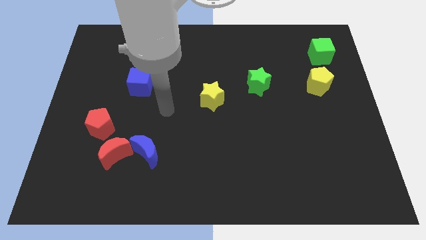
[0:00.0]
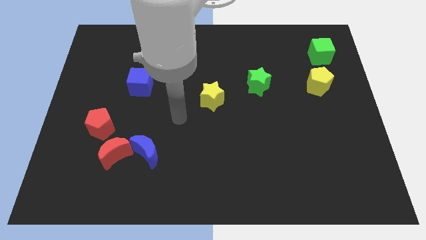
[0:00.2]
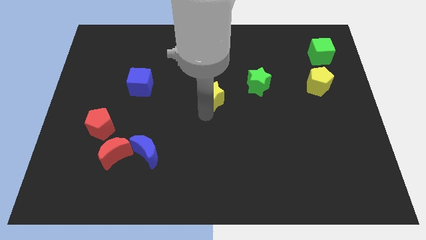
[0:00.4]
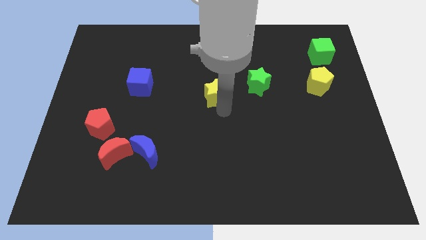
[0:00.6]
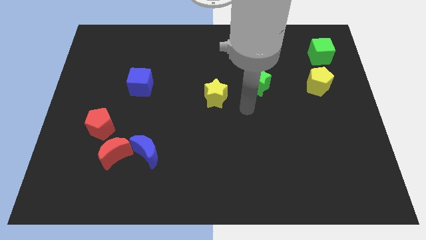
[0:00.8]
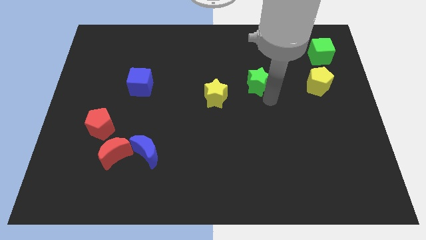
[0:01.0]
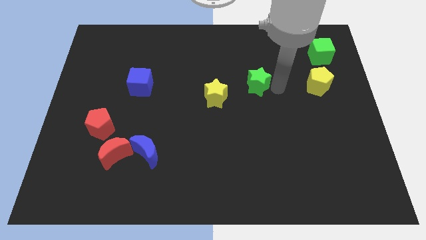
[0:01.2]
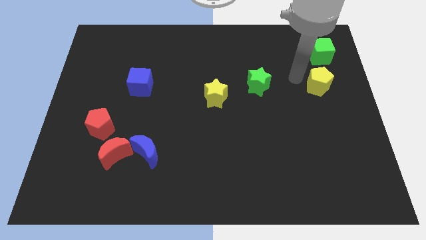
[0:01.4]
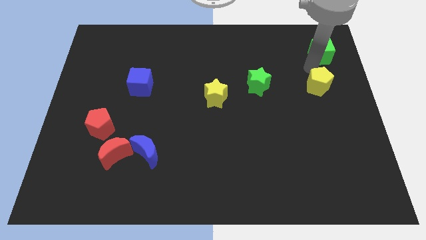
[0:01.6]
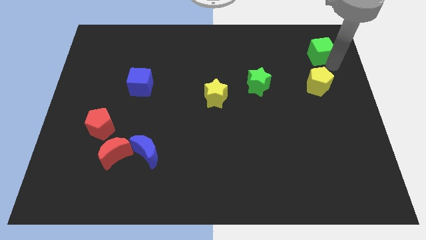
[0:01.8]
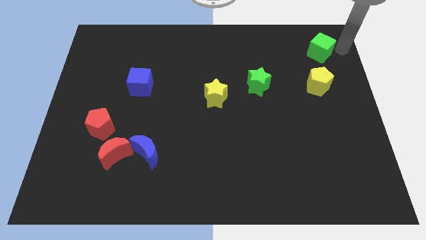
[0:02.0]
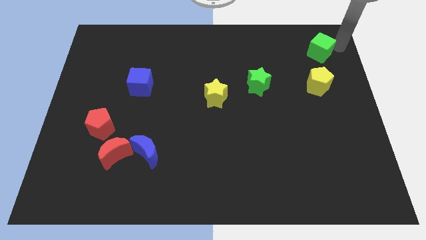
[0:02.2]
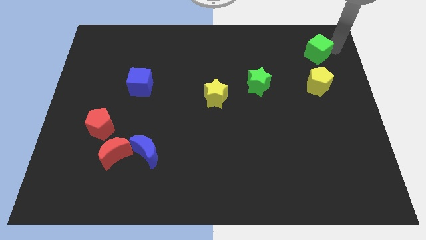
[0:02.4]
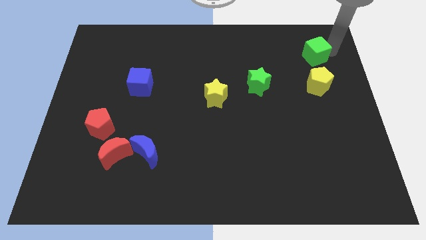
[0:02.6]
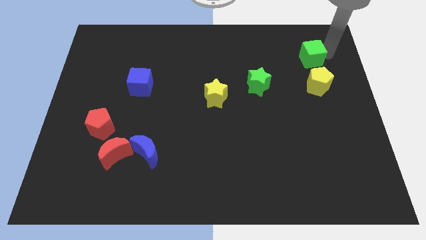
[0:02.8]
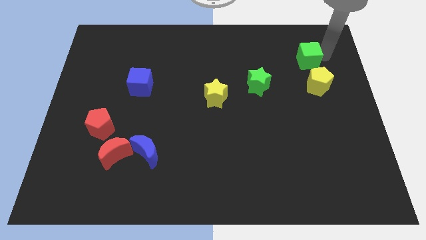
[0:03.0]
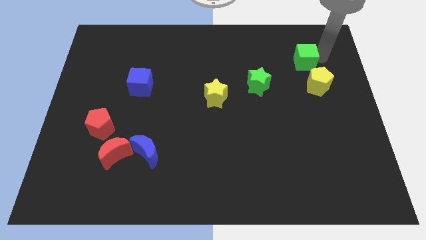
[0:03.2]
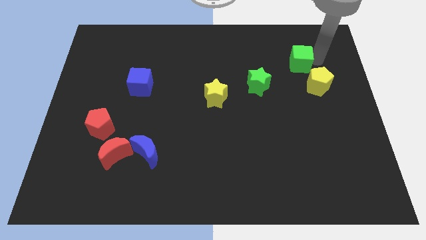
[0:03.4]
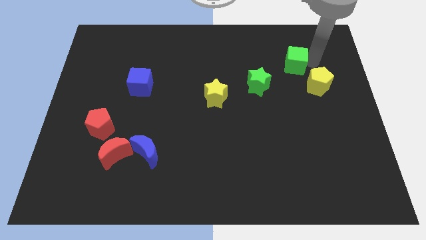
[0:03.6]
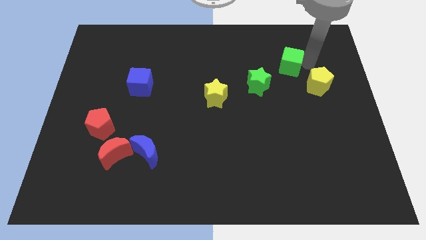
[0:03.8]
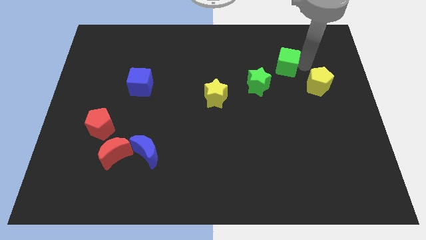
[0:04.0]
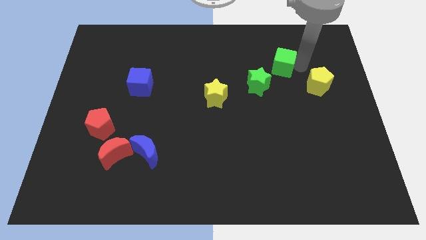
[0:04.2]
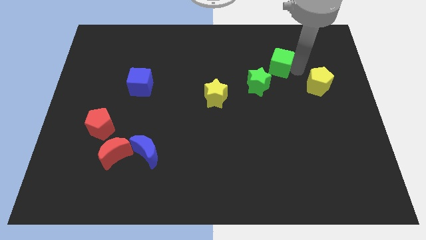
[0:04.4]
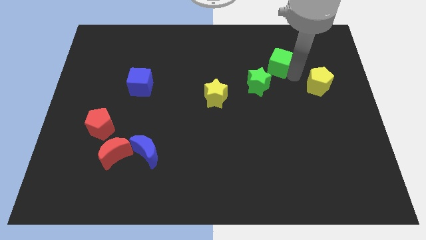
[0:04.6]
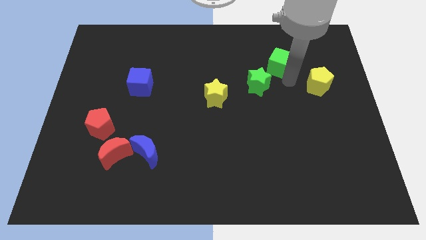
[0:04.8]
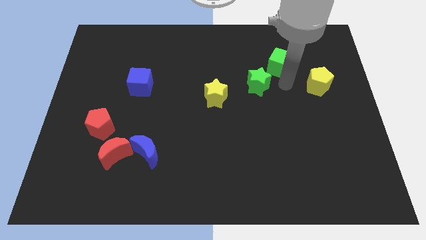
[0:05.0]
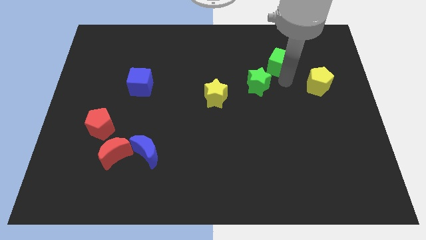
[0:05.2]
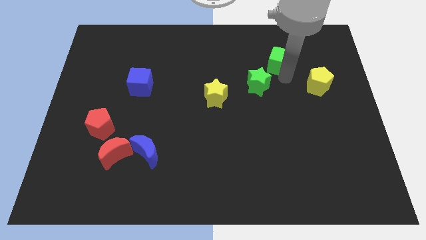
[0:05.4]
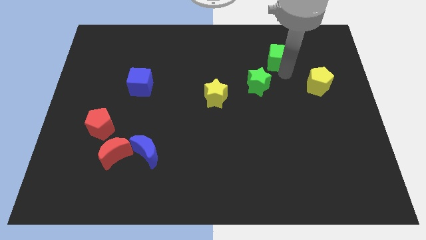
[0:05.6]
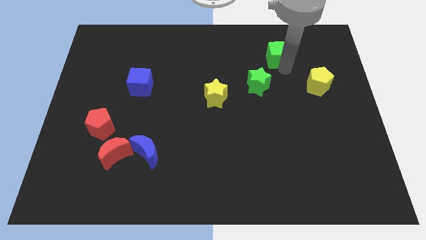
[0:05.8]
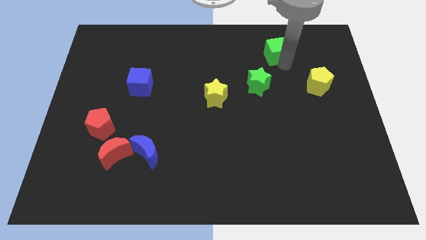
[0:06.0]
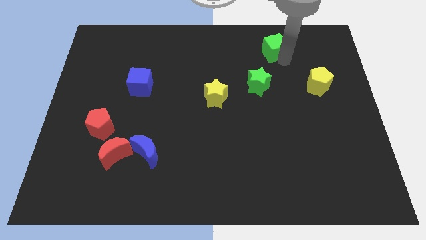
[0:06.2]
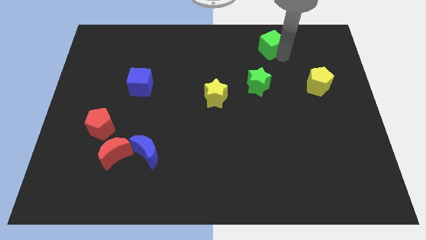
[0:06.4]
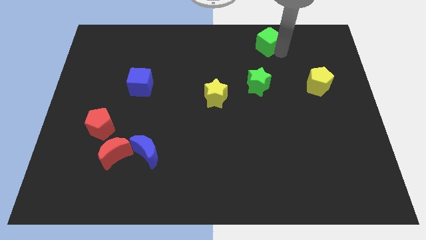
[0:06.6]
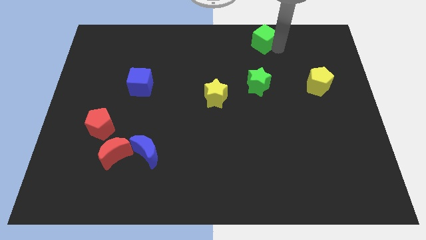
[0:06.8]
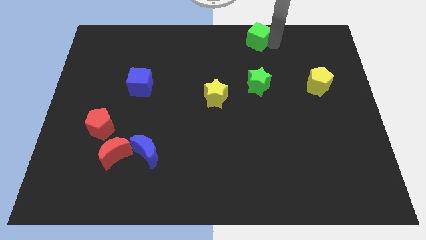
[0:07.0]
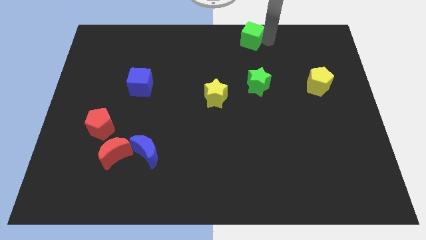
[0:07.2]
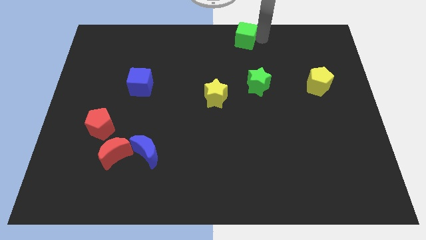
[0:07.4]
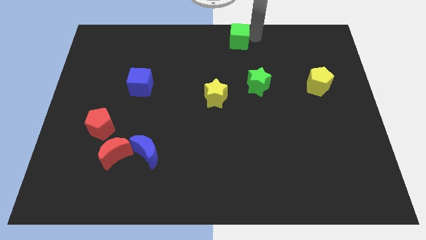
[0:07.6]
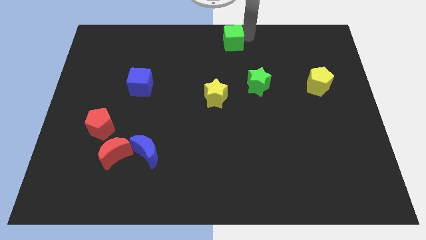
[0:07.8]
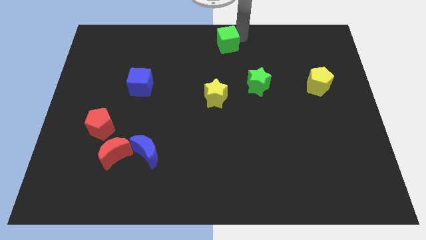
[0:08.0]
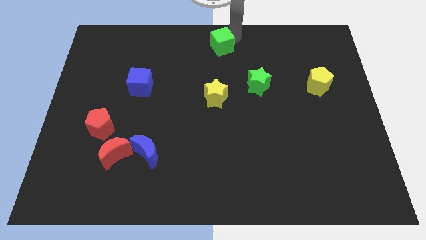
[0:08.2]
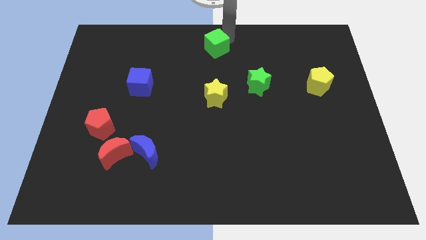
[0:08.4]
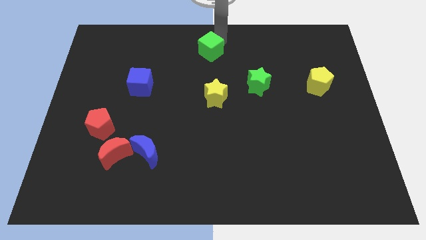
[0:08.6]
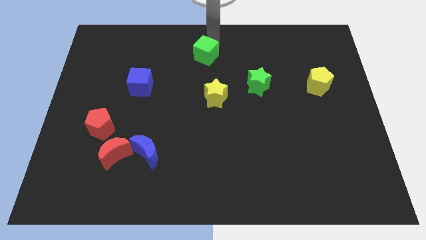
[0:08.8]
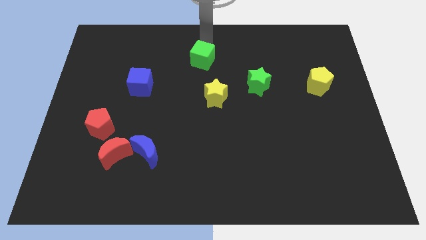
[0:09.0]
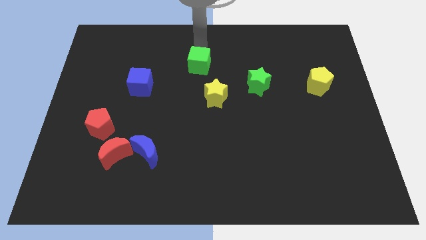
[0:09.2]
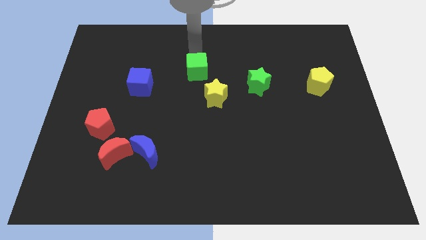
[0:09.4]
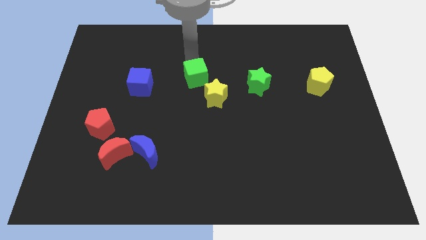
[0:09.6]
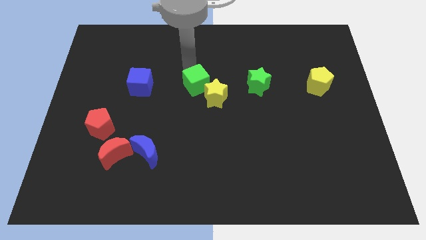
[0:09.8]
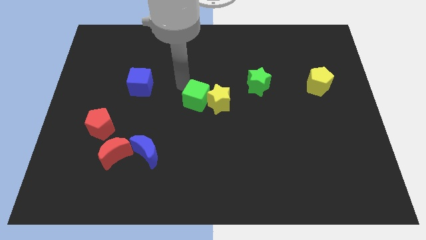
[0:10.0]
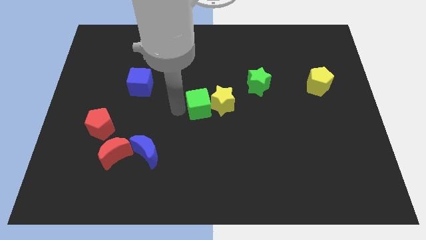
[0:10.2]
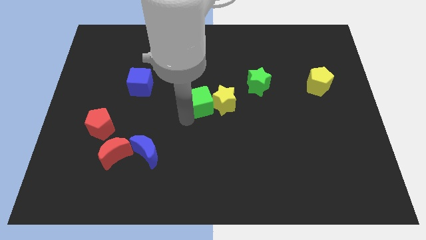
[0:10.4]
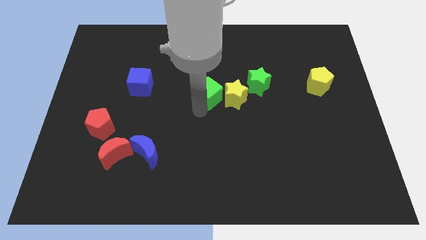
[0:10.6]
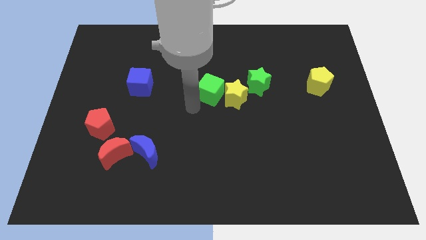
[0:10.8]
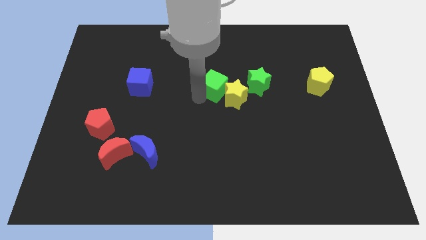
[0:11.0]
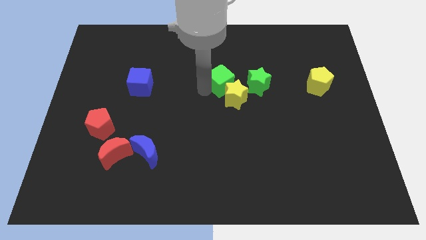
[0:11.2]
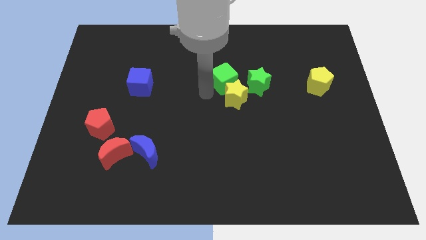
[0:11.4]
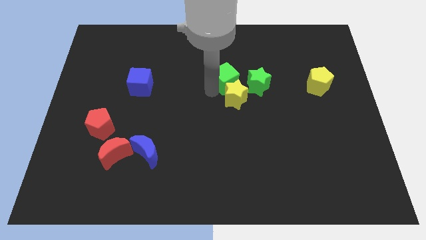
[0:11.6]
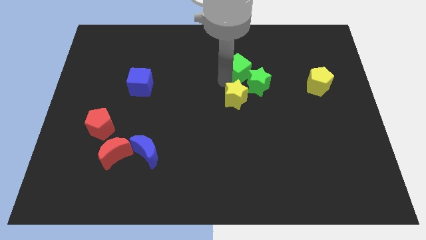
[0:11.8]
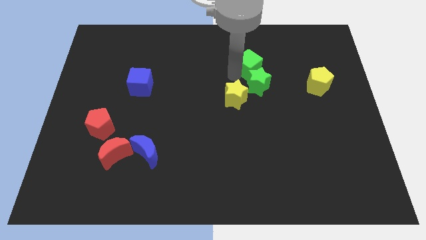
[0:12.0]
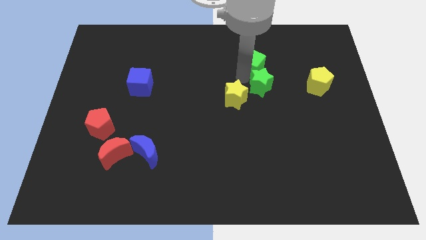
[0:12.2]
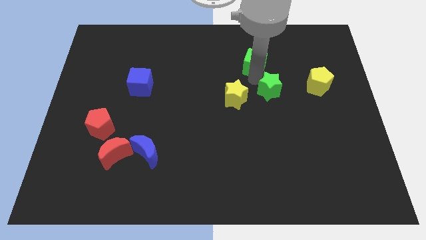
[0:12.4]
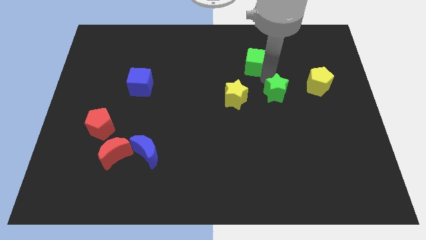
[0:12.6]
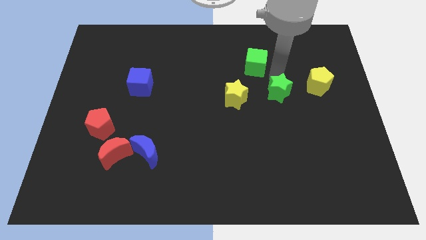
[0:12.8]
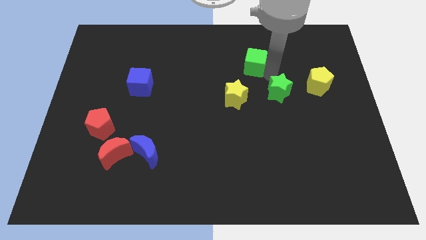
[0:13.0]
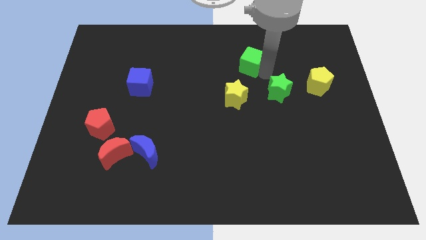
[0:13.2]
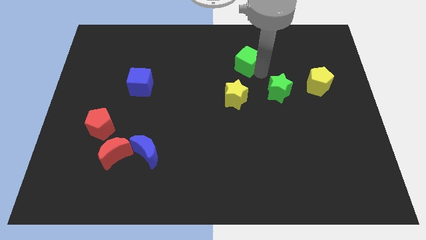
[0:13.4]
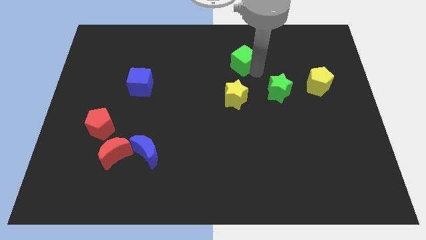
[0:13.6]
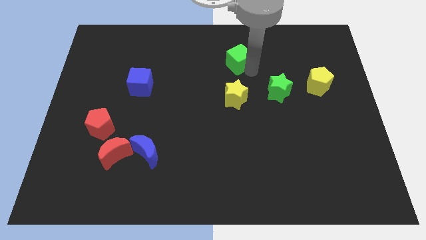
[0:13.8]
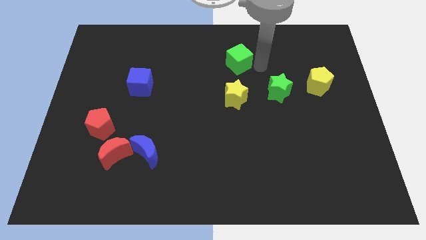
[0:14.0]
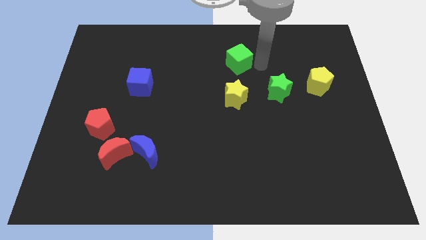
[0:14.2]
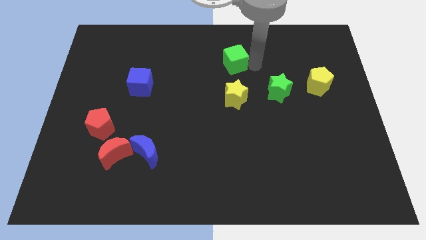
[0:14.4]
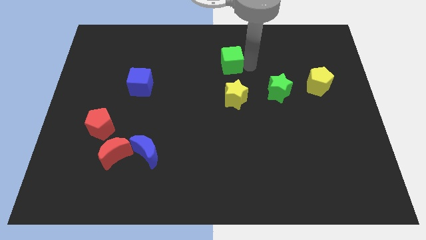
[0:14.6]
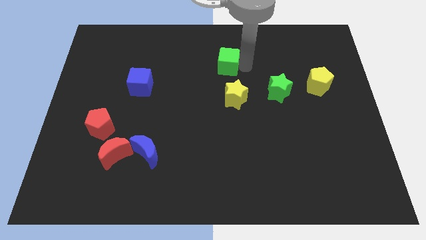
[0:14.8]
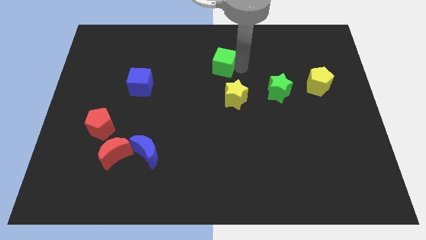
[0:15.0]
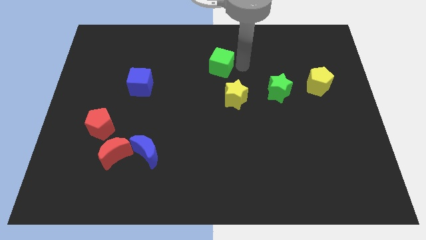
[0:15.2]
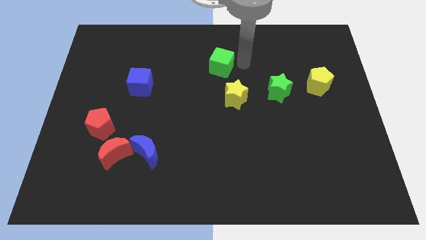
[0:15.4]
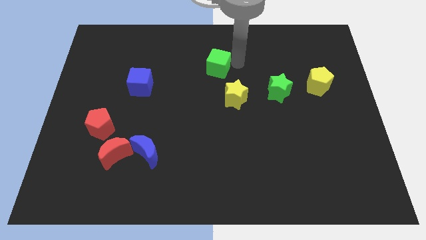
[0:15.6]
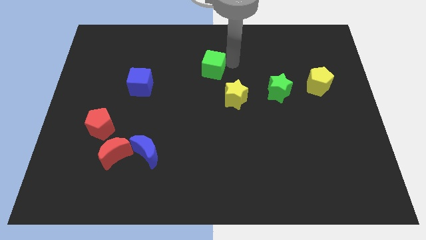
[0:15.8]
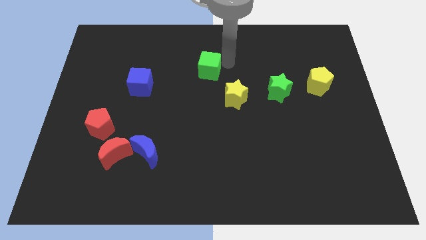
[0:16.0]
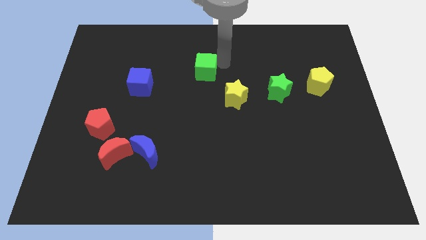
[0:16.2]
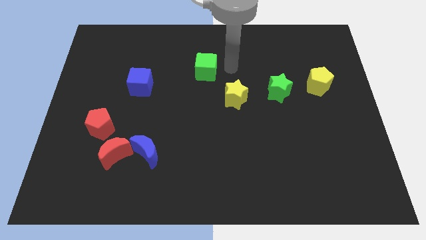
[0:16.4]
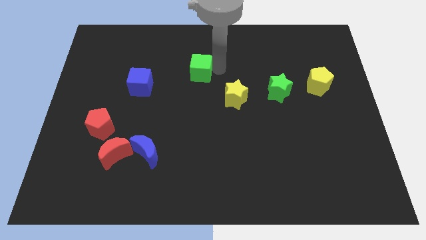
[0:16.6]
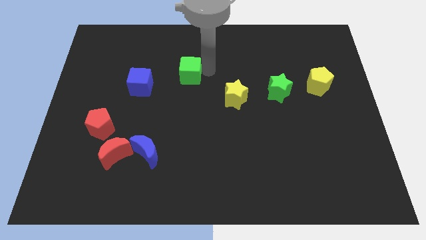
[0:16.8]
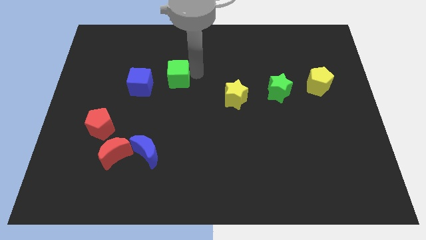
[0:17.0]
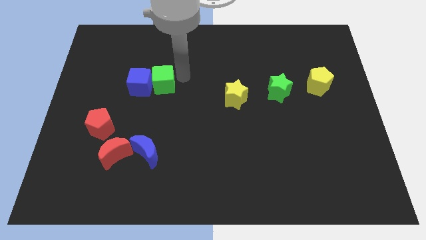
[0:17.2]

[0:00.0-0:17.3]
push the green cube to the blue cube
